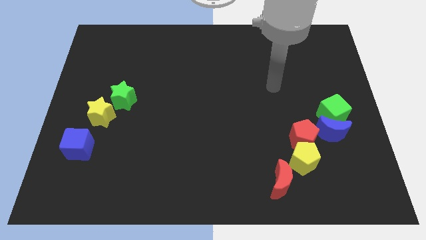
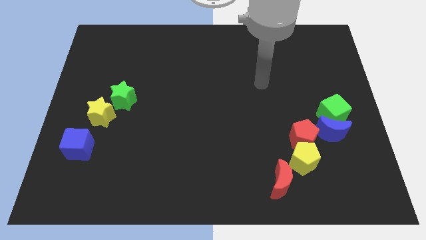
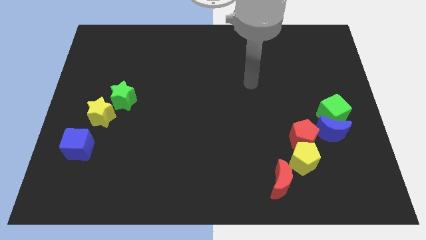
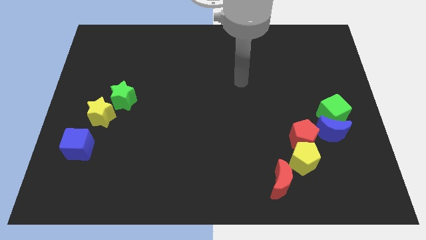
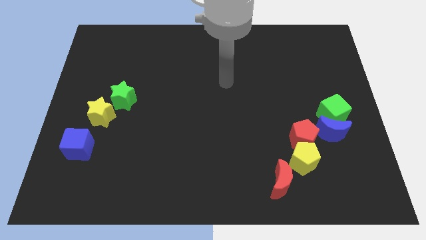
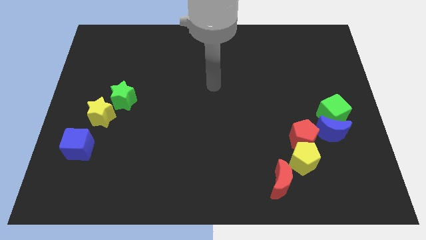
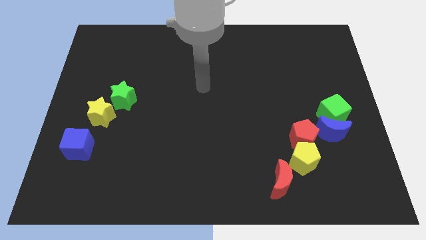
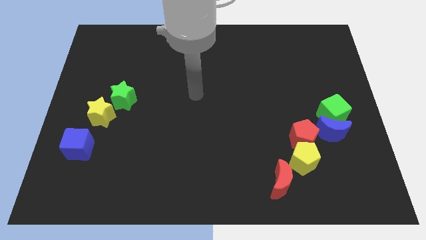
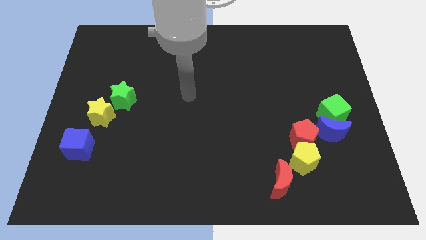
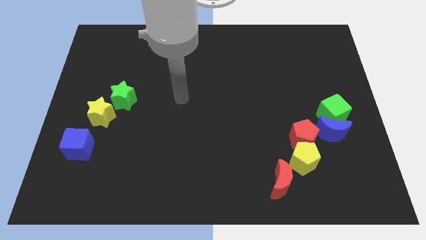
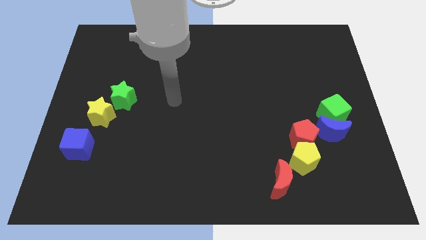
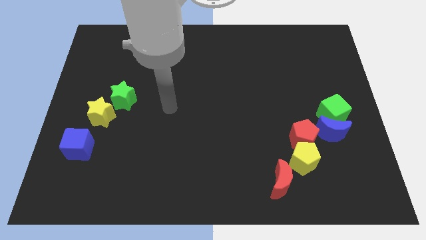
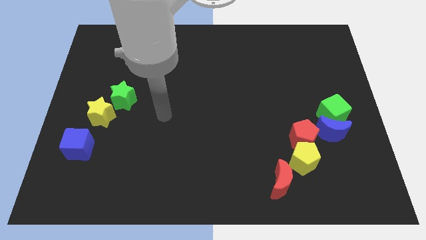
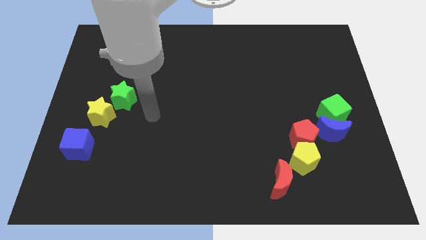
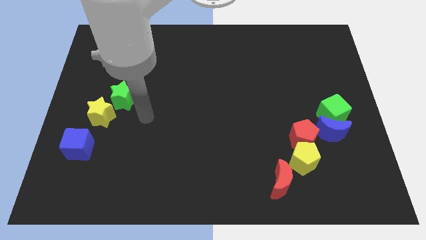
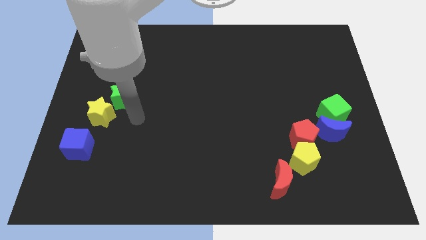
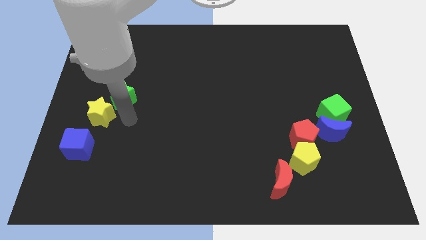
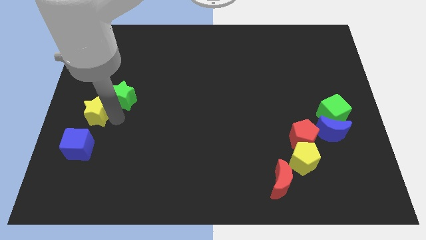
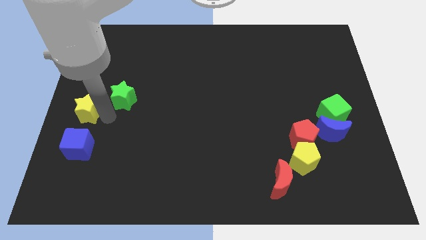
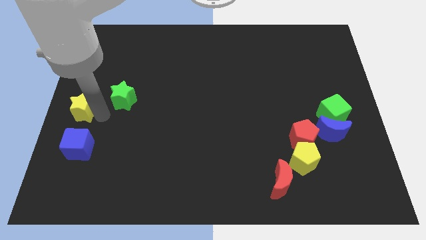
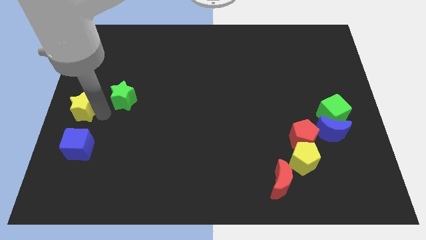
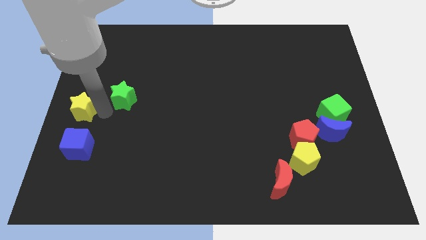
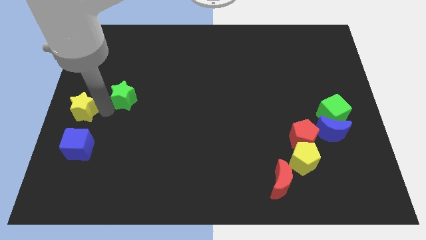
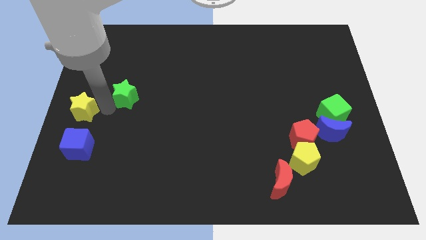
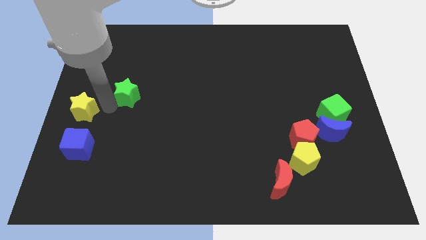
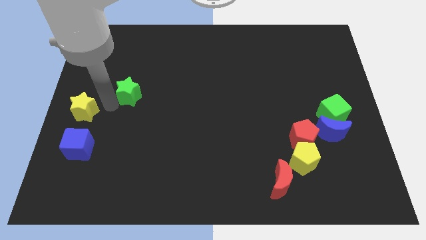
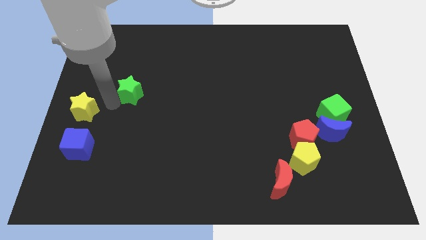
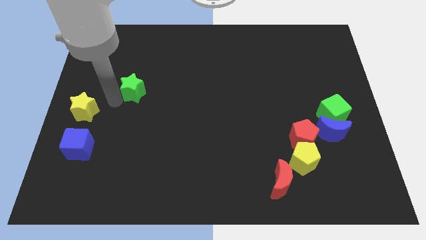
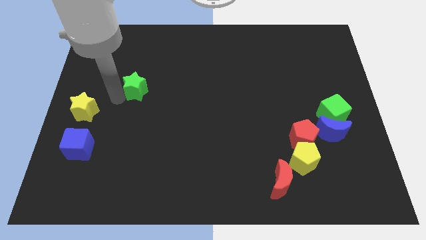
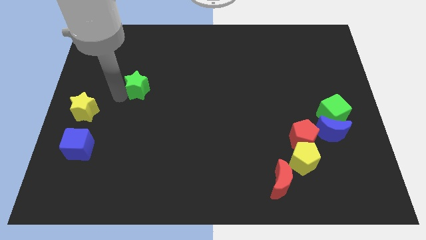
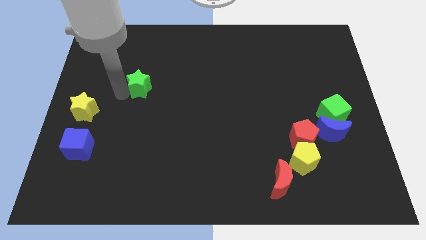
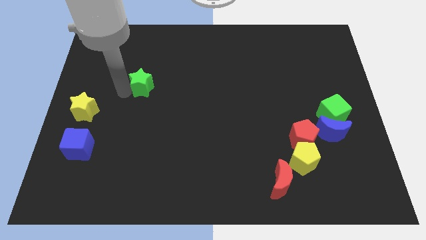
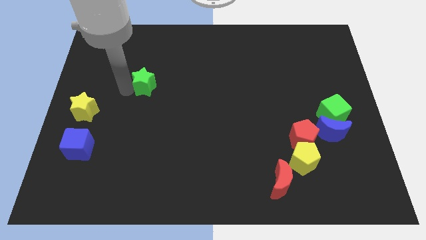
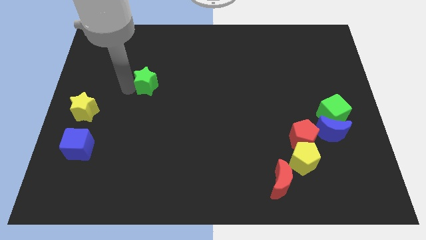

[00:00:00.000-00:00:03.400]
slightly slide the green star upwards and then right

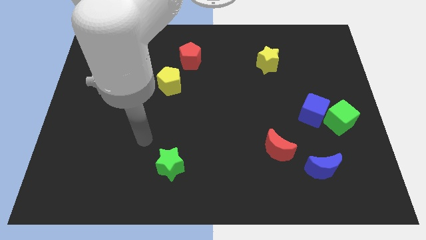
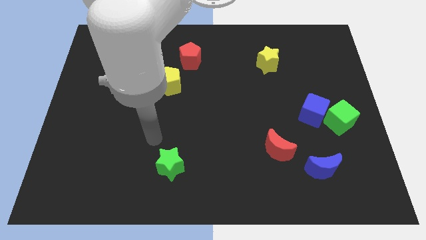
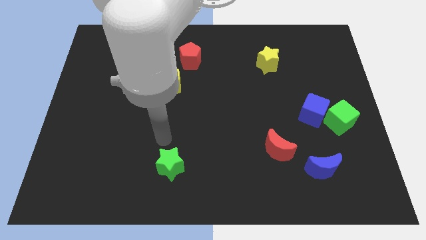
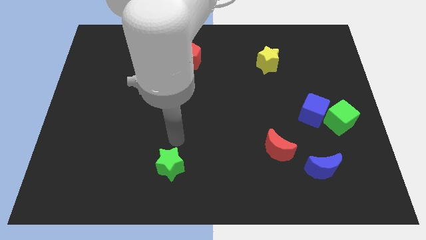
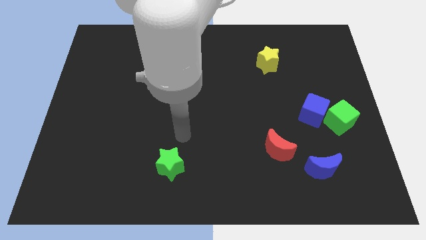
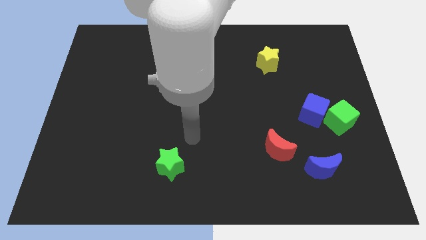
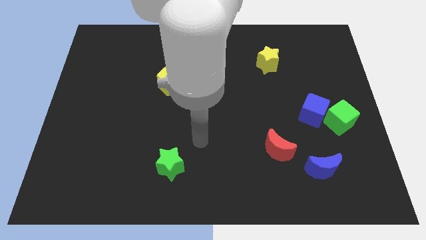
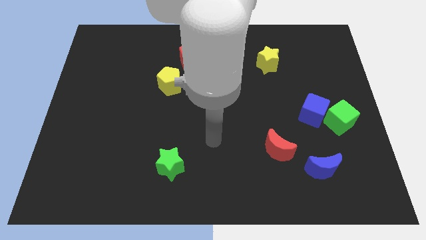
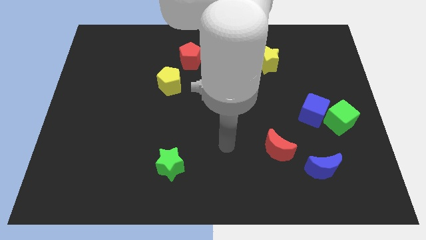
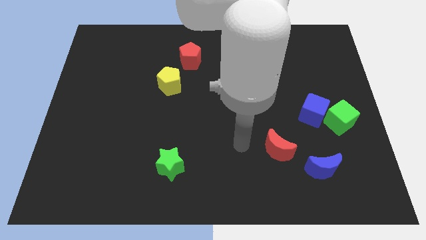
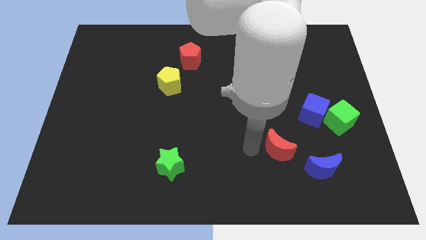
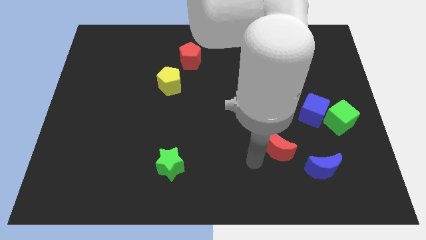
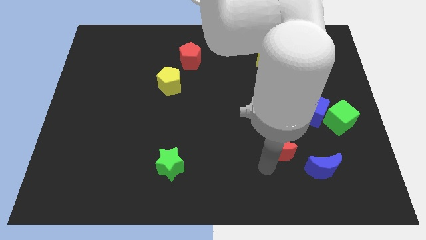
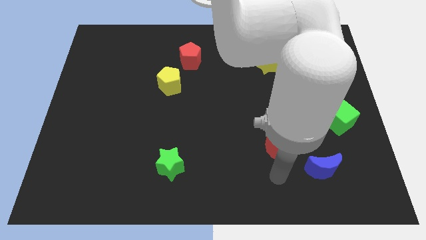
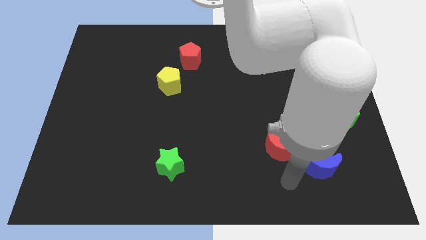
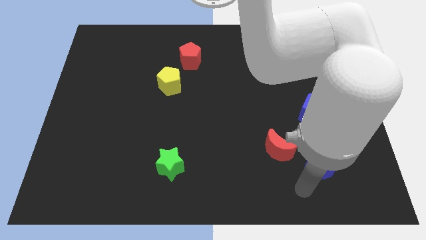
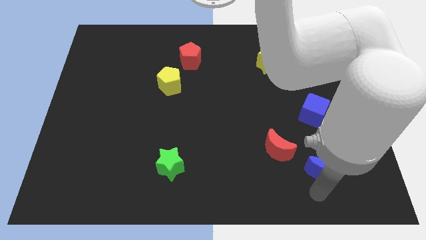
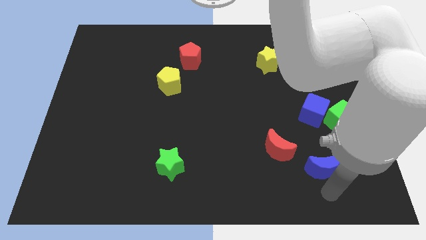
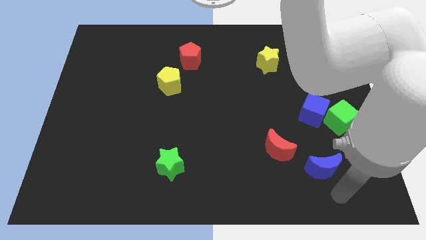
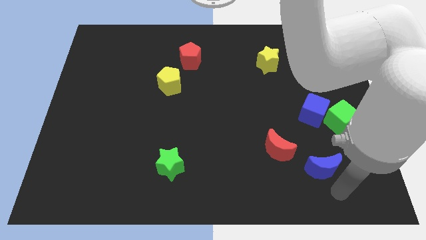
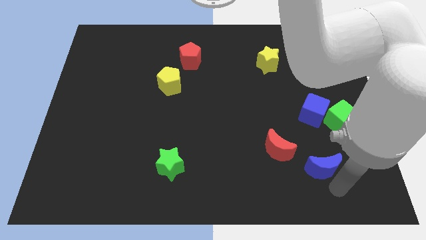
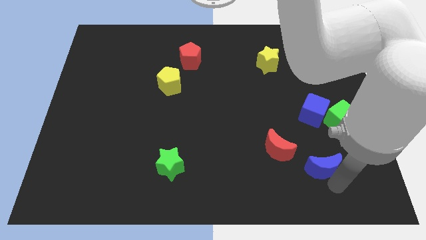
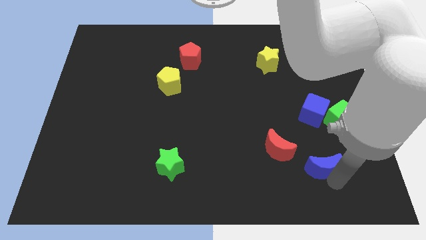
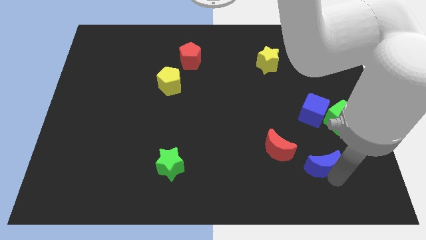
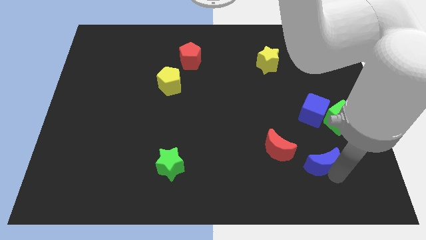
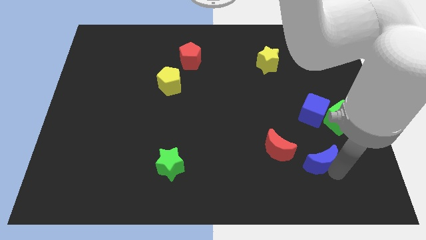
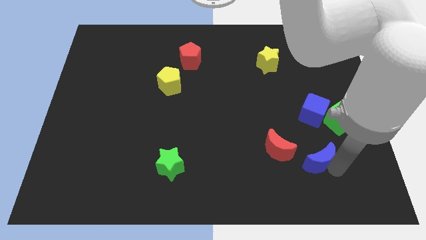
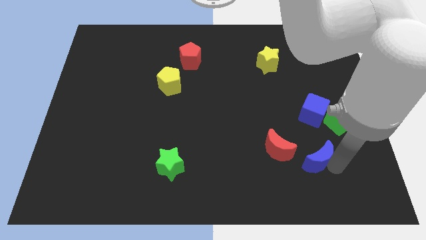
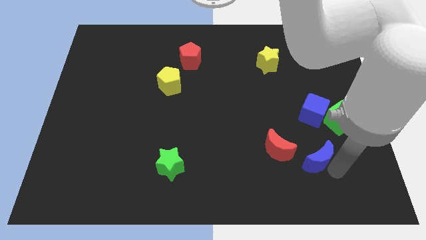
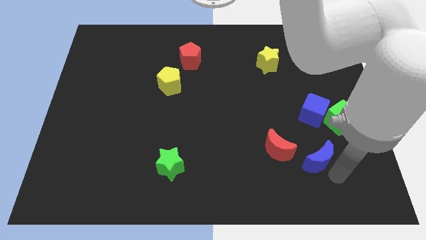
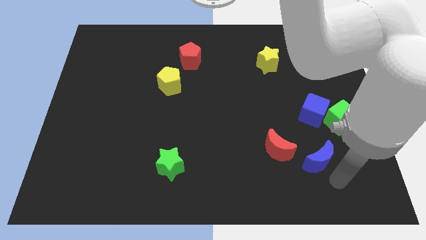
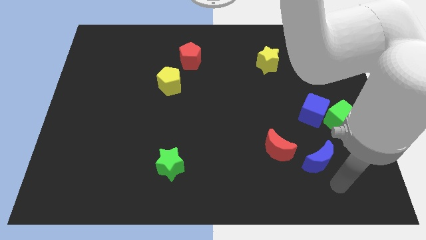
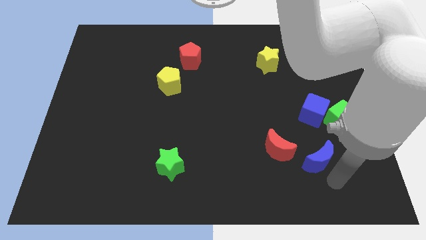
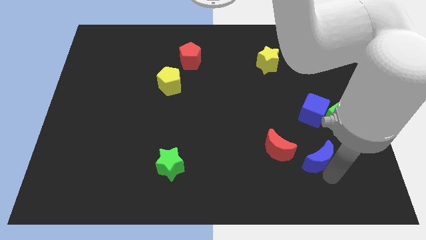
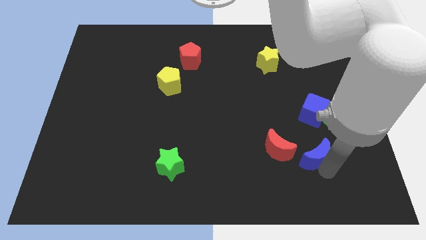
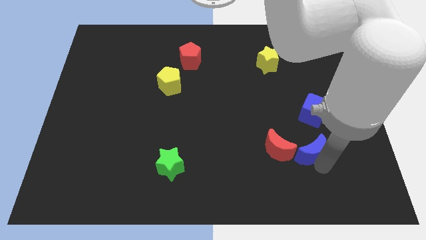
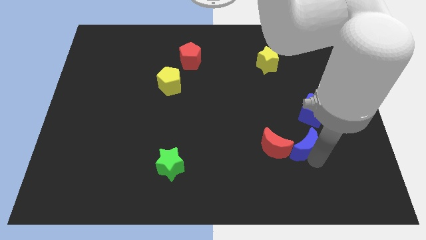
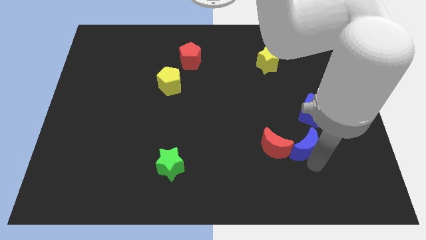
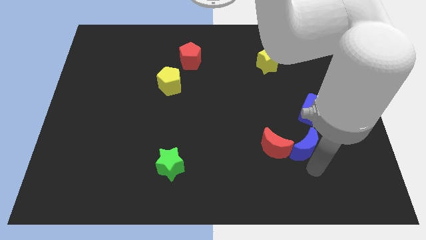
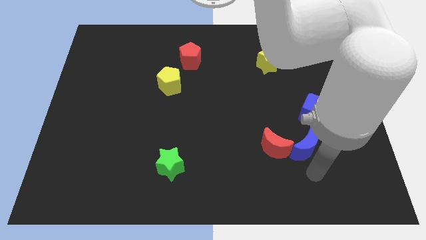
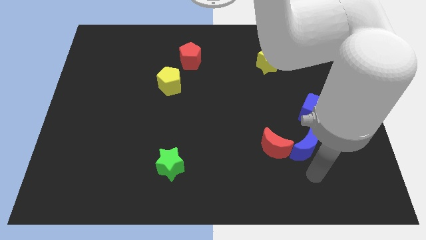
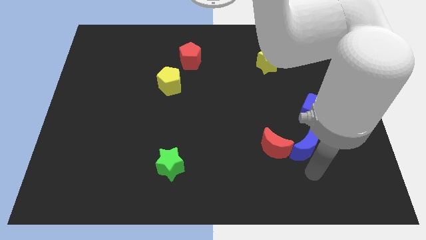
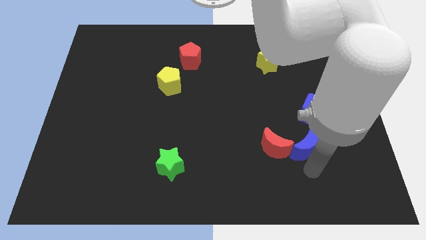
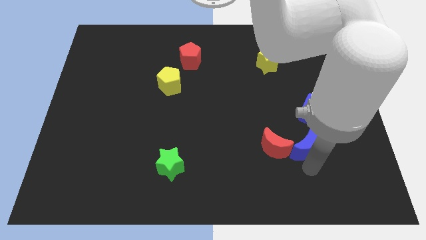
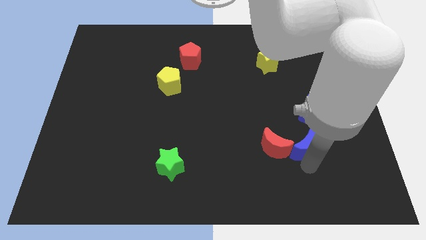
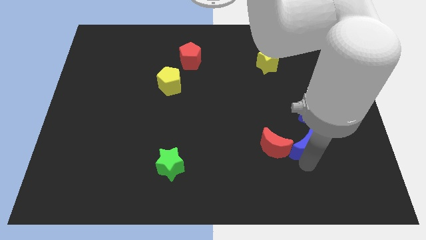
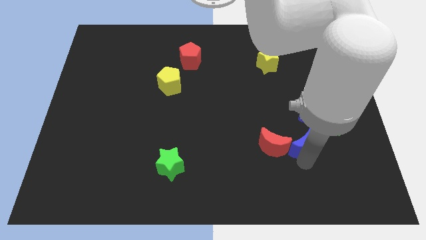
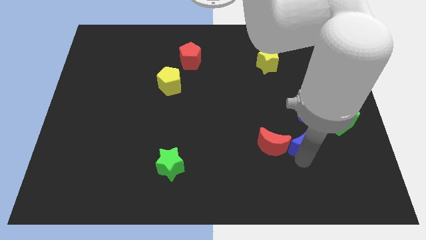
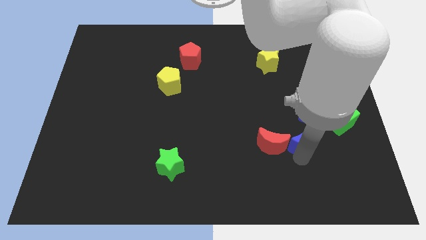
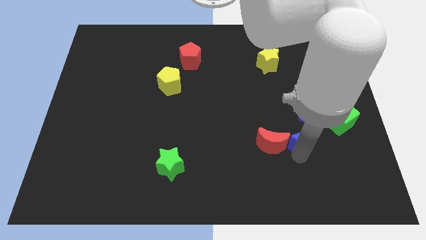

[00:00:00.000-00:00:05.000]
push the blue moon a little up
